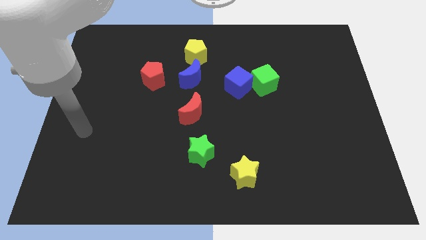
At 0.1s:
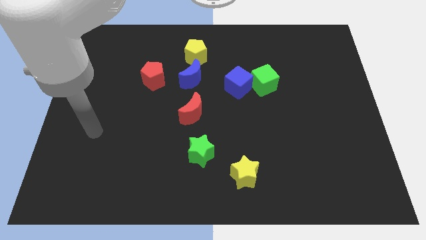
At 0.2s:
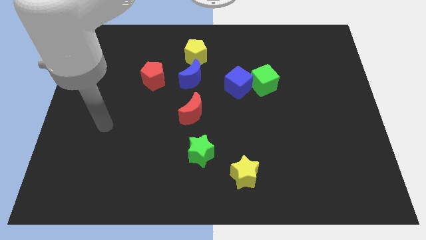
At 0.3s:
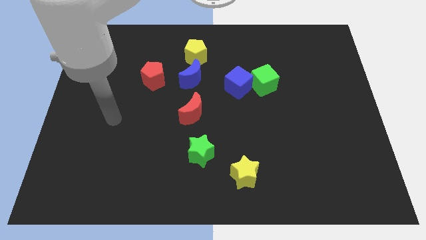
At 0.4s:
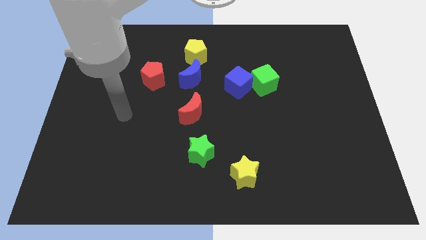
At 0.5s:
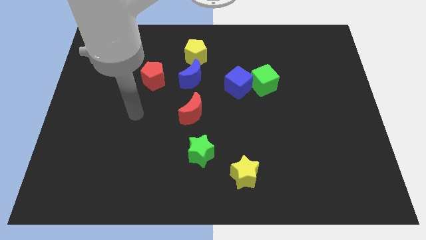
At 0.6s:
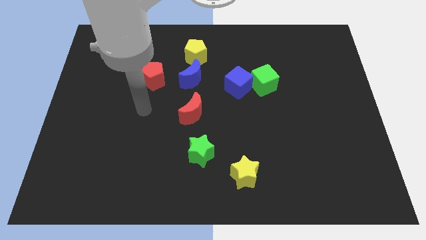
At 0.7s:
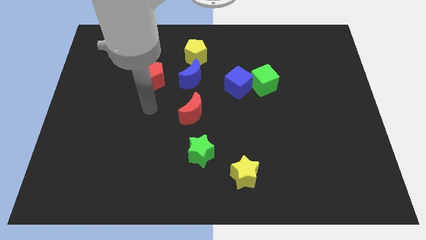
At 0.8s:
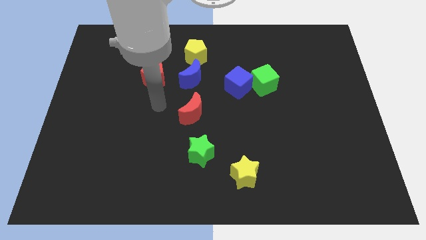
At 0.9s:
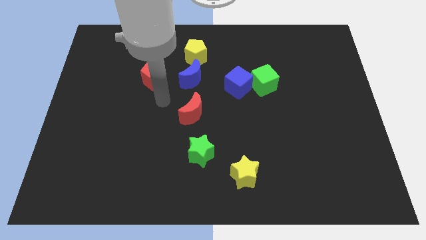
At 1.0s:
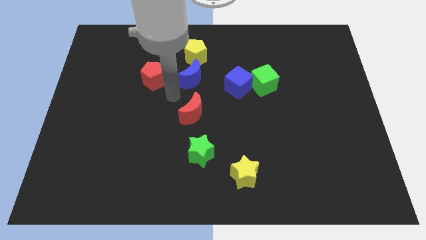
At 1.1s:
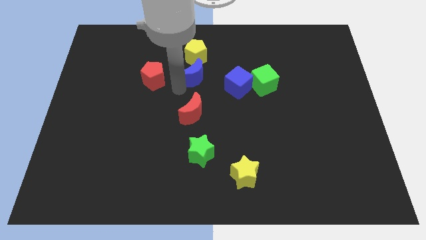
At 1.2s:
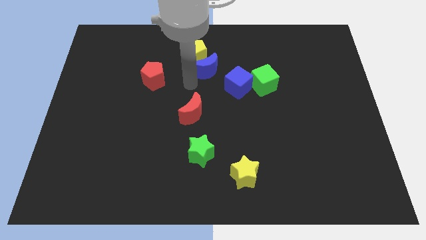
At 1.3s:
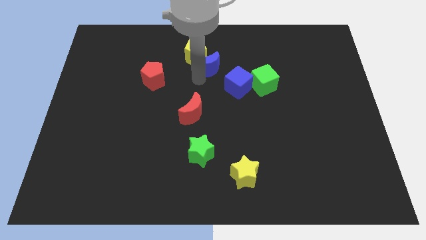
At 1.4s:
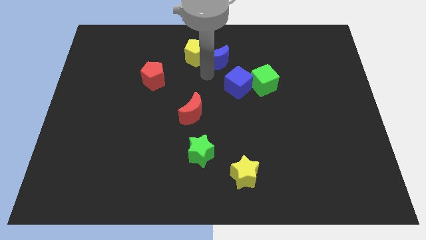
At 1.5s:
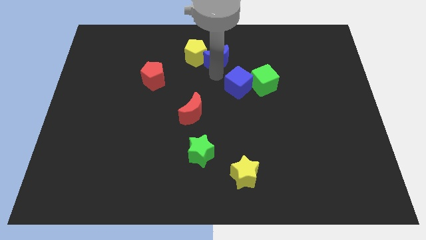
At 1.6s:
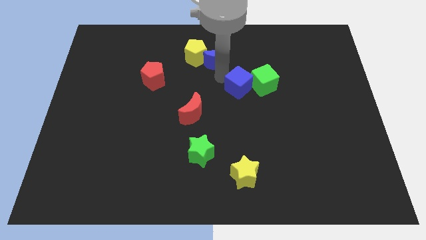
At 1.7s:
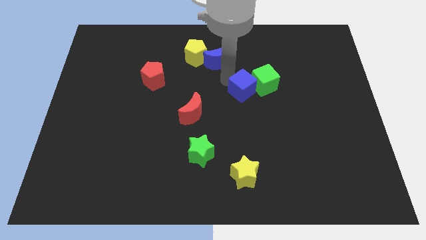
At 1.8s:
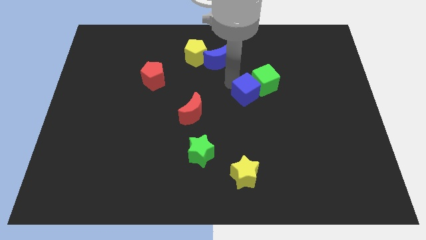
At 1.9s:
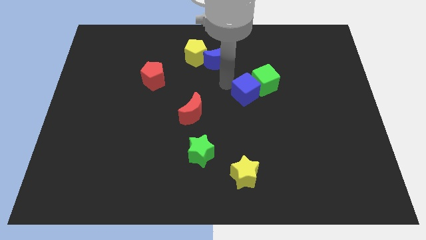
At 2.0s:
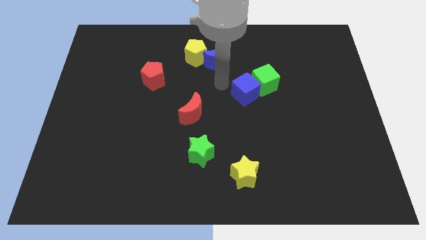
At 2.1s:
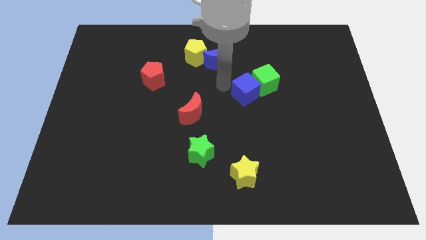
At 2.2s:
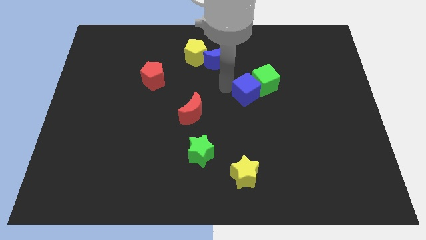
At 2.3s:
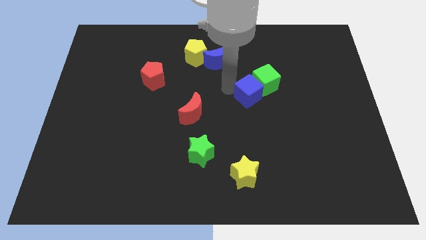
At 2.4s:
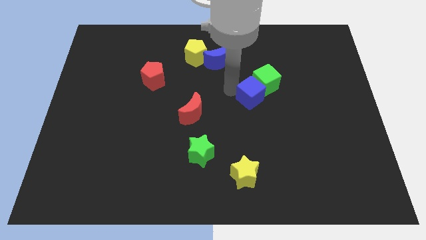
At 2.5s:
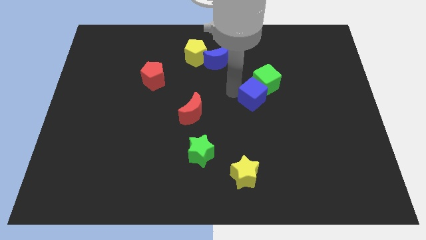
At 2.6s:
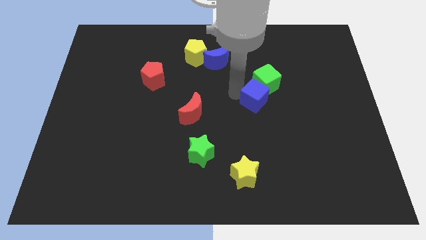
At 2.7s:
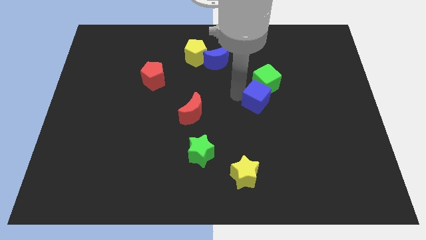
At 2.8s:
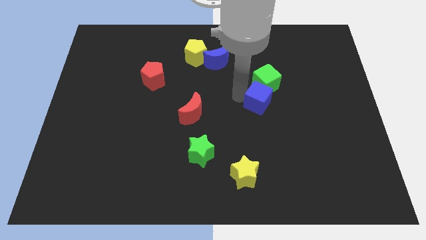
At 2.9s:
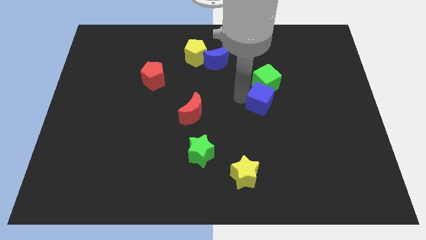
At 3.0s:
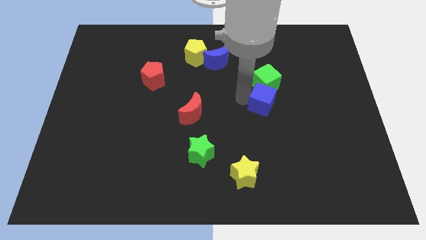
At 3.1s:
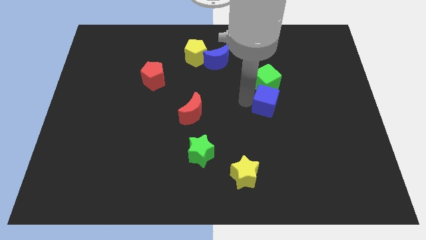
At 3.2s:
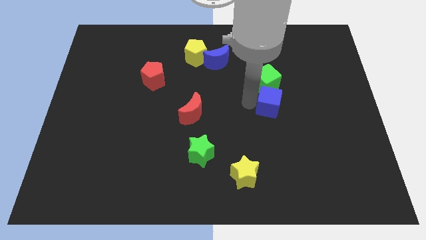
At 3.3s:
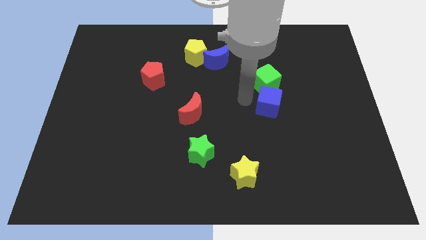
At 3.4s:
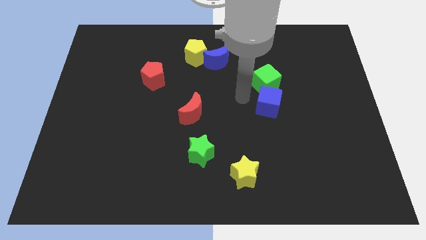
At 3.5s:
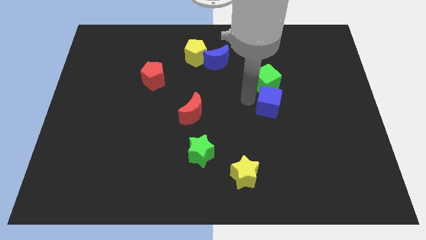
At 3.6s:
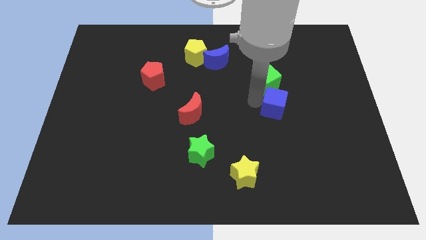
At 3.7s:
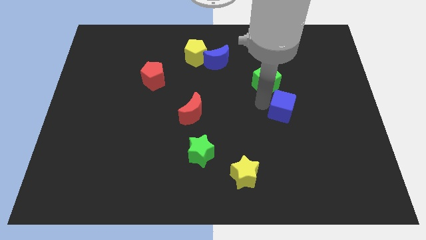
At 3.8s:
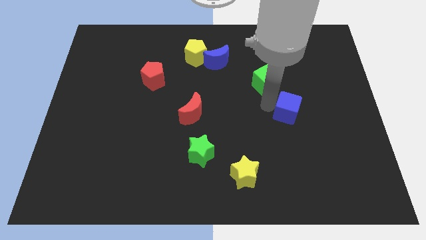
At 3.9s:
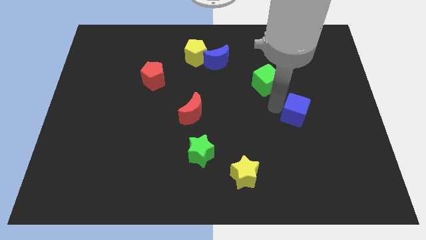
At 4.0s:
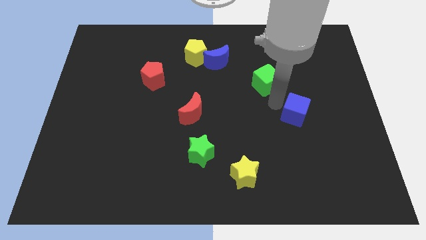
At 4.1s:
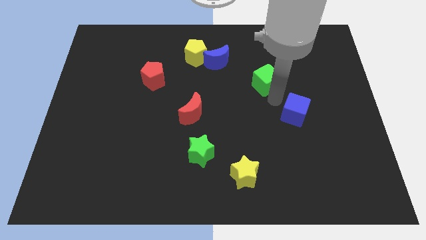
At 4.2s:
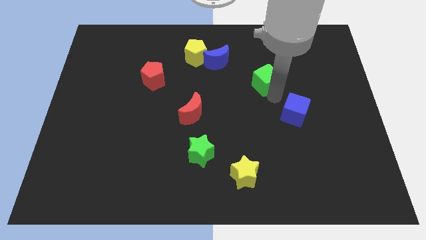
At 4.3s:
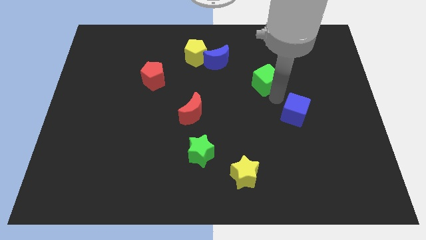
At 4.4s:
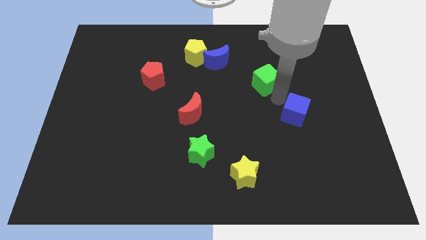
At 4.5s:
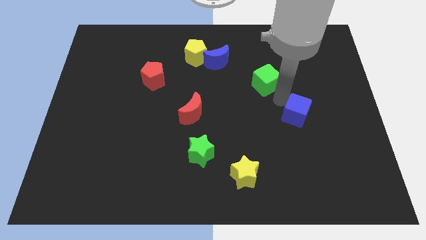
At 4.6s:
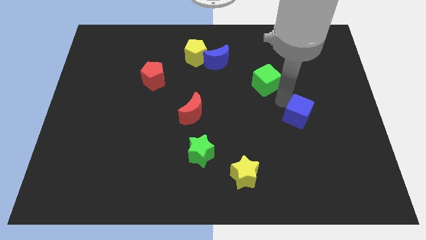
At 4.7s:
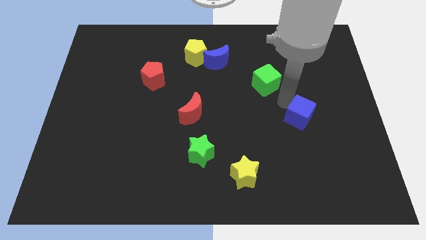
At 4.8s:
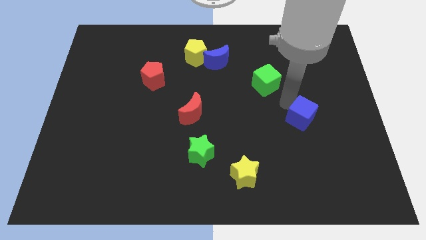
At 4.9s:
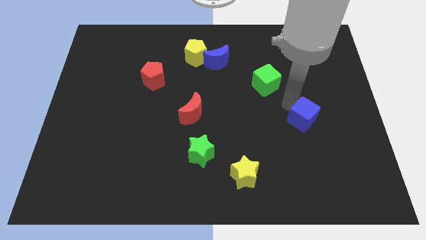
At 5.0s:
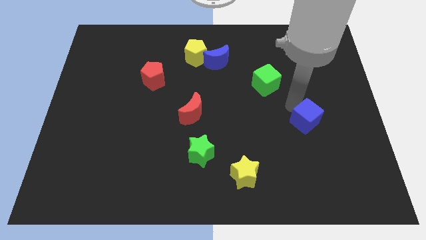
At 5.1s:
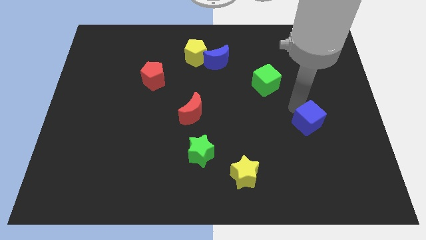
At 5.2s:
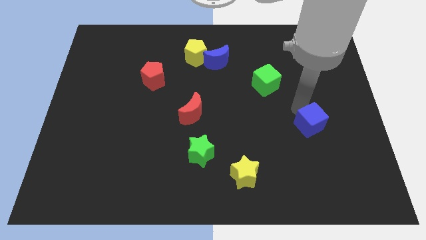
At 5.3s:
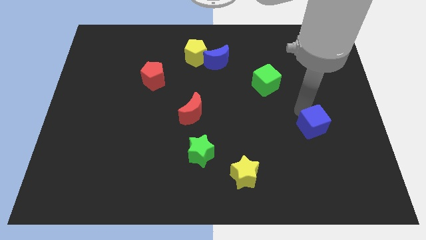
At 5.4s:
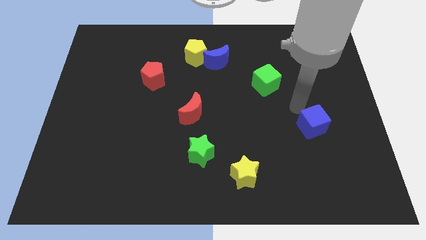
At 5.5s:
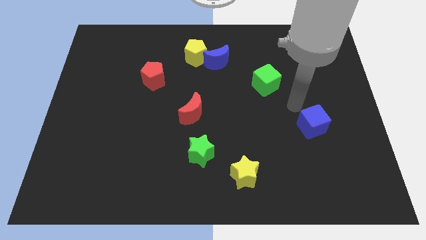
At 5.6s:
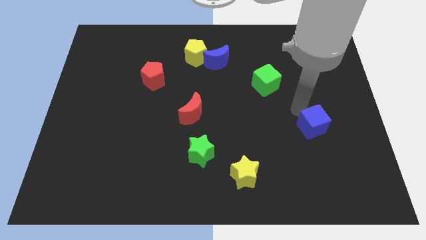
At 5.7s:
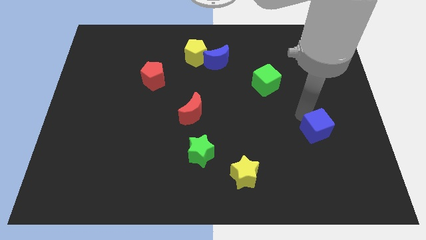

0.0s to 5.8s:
move the blue cube down and then right

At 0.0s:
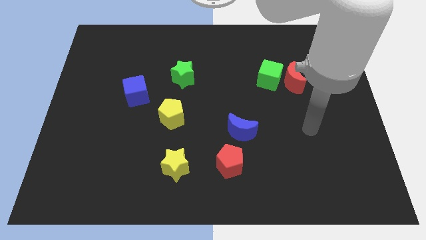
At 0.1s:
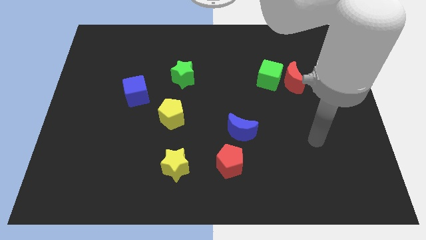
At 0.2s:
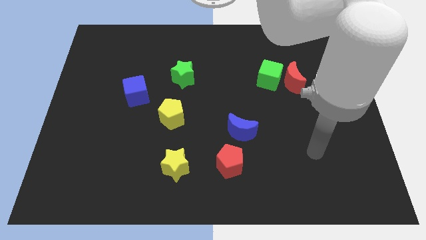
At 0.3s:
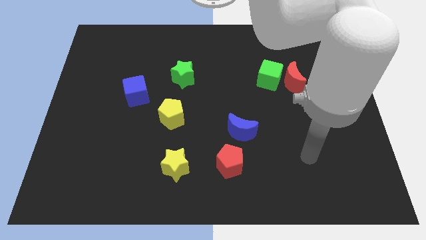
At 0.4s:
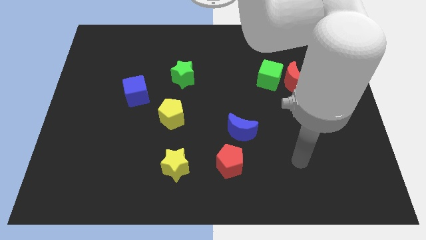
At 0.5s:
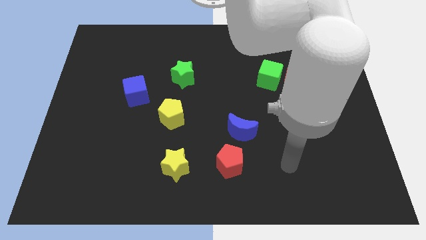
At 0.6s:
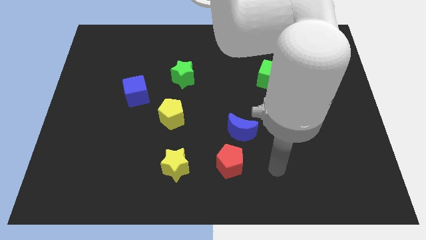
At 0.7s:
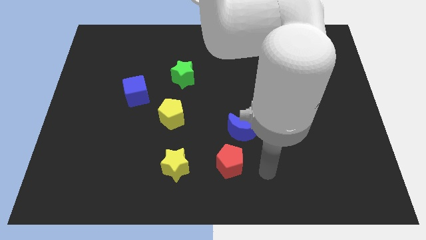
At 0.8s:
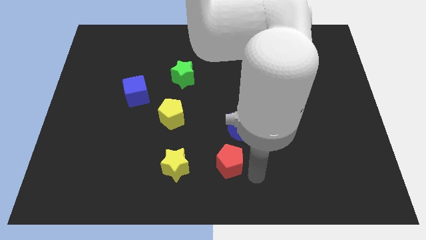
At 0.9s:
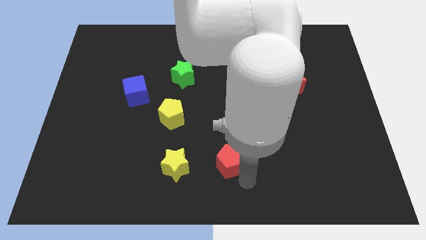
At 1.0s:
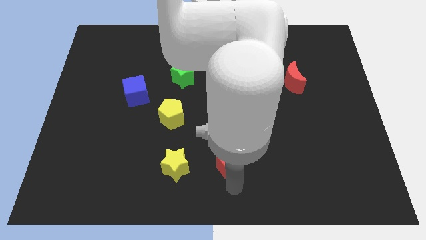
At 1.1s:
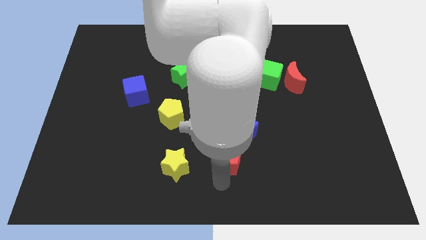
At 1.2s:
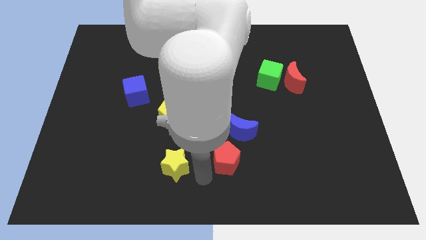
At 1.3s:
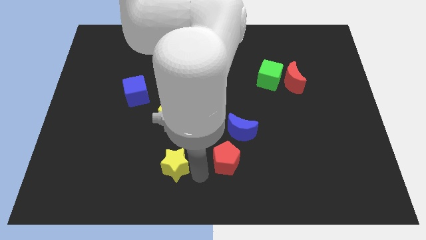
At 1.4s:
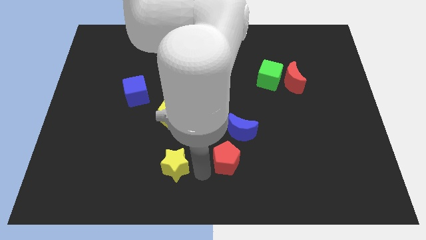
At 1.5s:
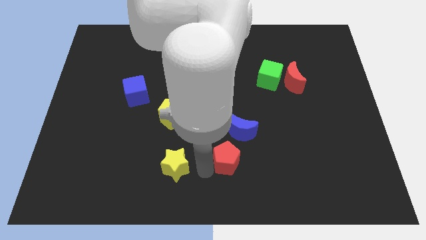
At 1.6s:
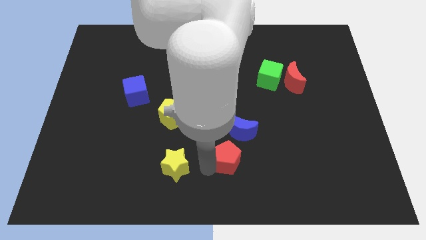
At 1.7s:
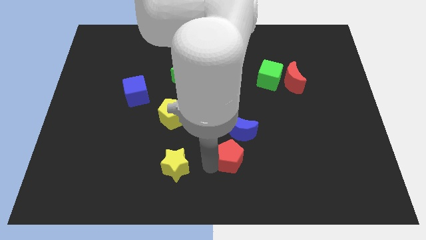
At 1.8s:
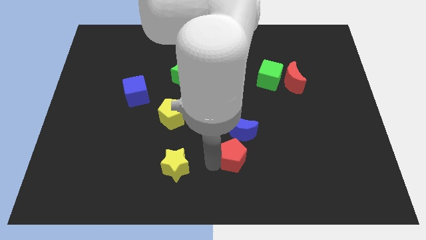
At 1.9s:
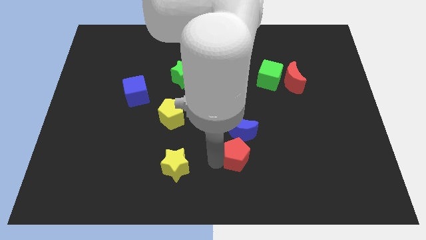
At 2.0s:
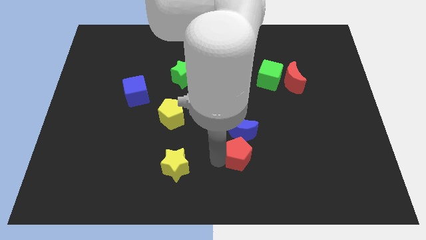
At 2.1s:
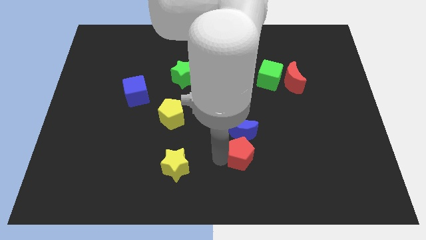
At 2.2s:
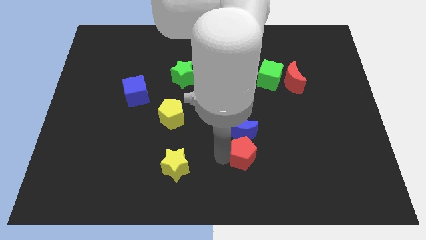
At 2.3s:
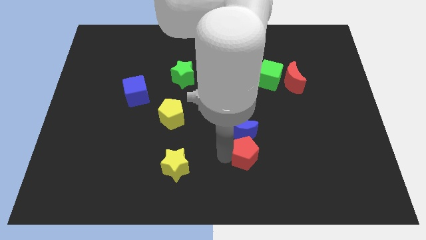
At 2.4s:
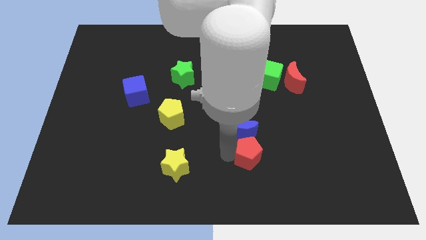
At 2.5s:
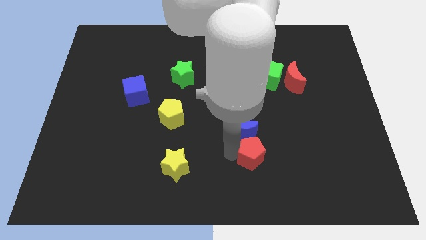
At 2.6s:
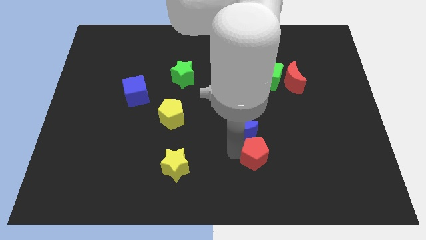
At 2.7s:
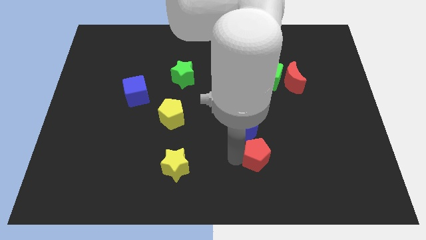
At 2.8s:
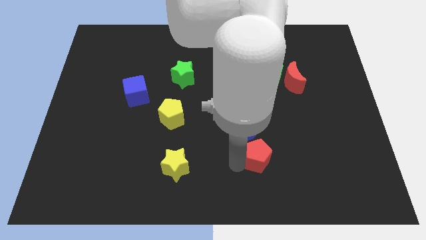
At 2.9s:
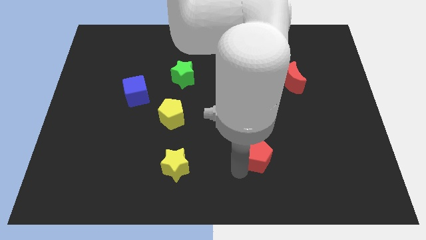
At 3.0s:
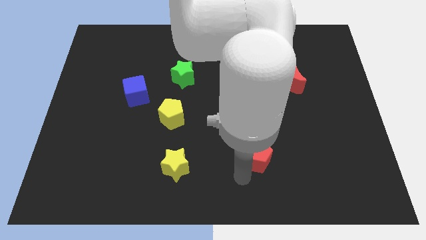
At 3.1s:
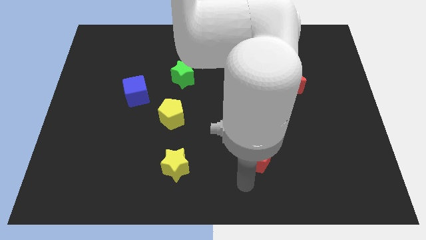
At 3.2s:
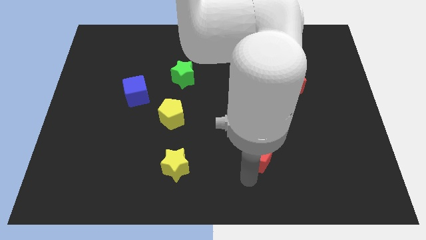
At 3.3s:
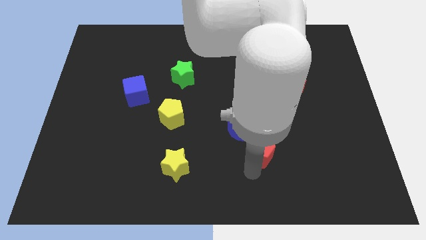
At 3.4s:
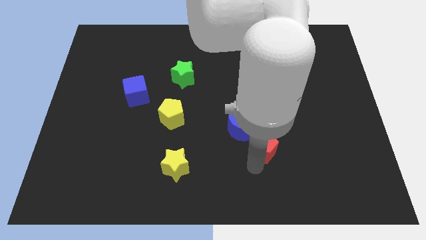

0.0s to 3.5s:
slide the red pentagon a little diagonally upwards and right
